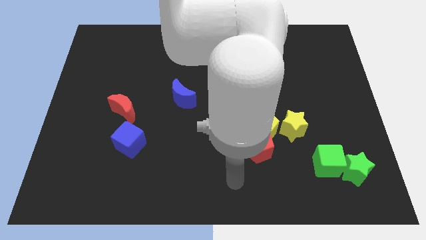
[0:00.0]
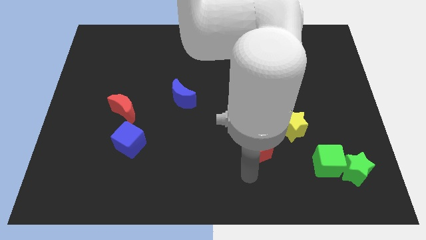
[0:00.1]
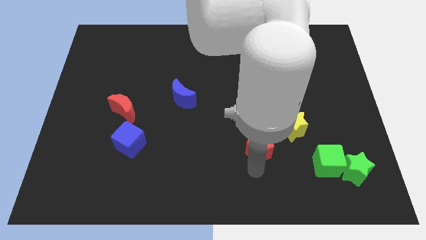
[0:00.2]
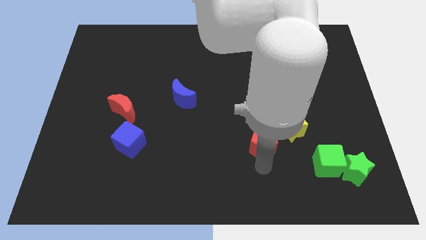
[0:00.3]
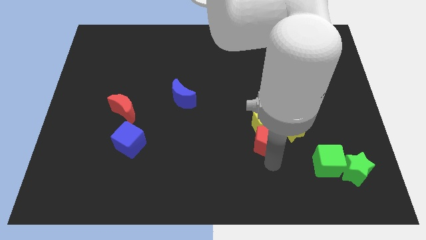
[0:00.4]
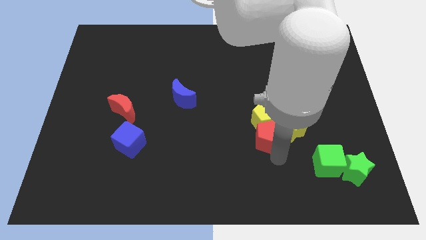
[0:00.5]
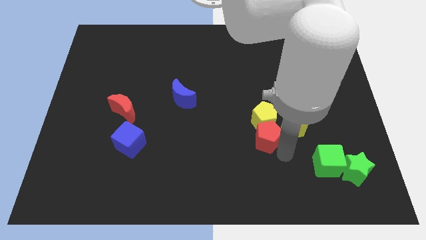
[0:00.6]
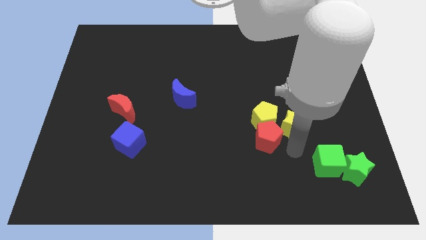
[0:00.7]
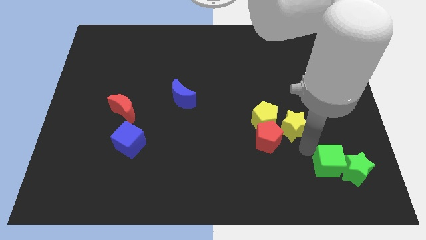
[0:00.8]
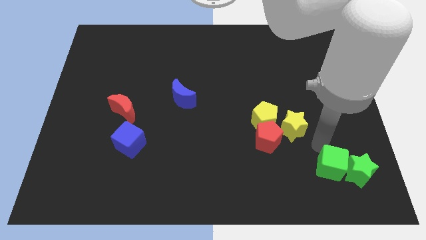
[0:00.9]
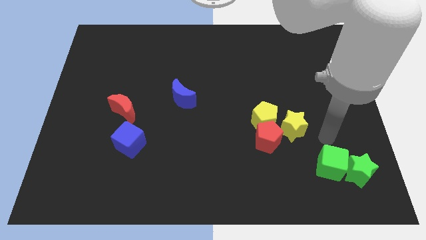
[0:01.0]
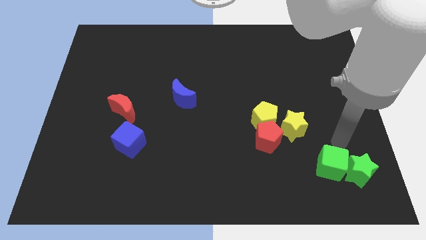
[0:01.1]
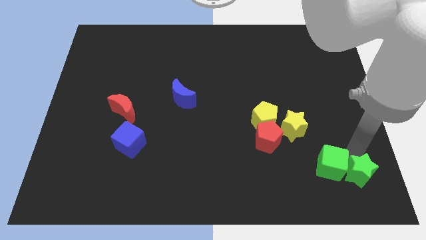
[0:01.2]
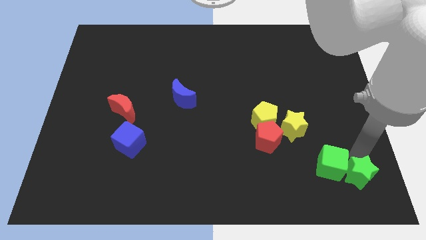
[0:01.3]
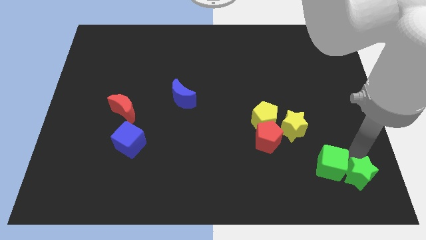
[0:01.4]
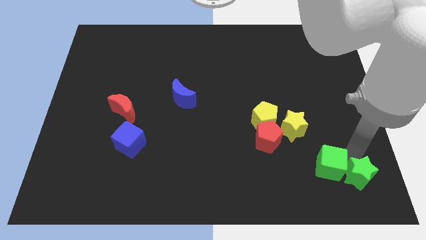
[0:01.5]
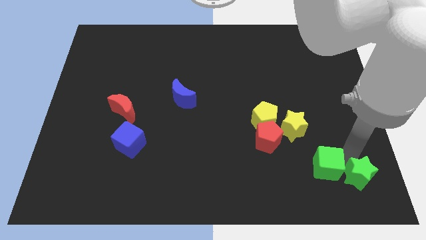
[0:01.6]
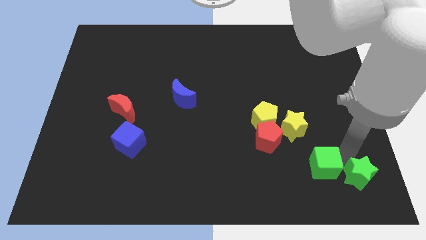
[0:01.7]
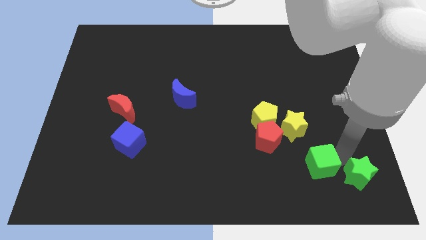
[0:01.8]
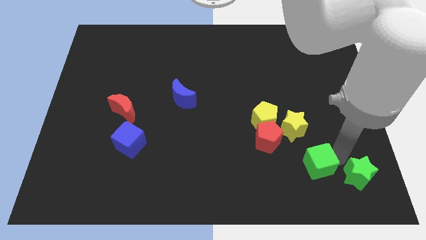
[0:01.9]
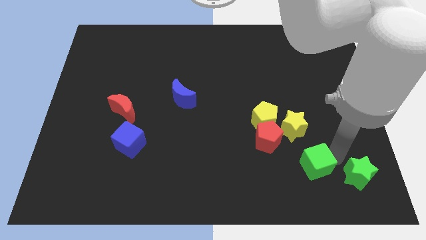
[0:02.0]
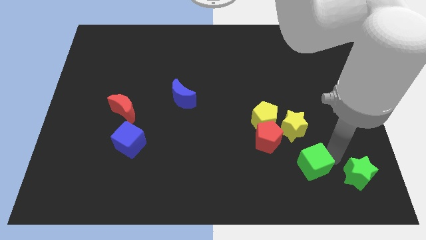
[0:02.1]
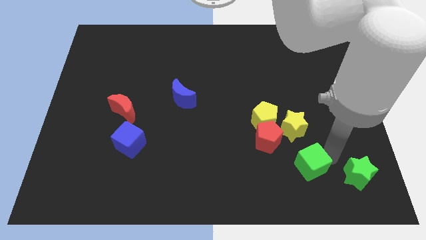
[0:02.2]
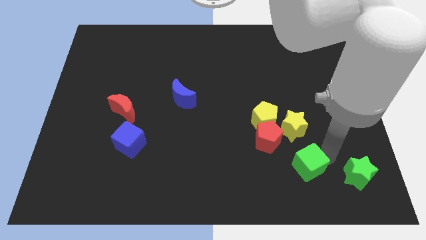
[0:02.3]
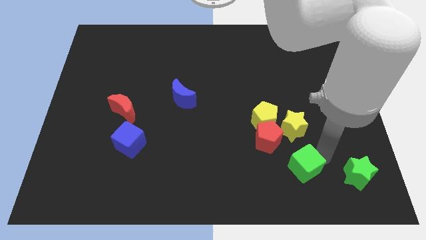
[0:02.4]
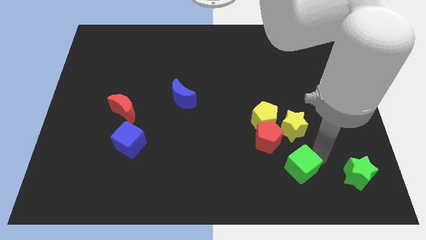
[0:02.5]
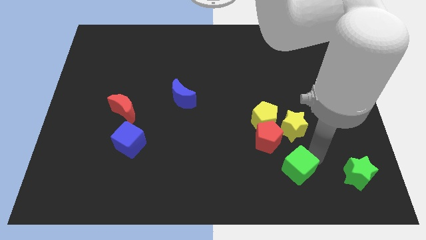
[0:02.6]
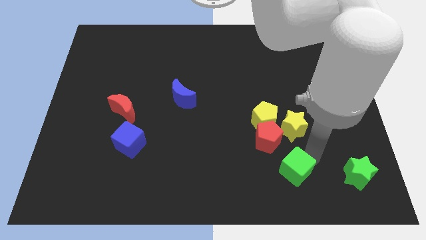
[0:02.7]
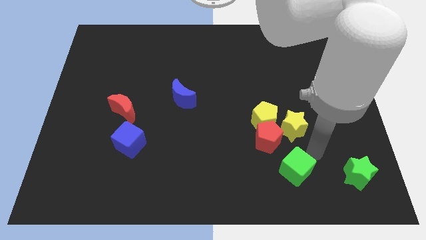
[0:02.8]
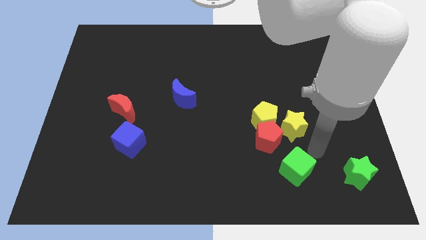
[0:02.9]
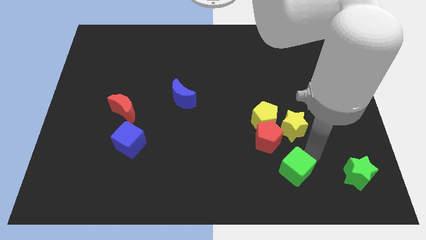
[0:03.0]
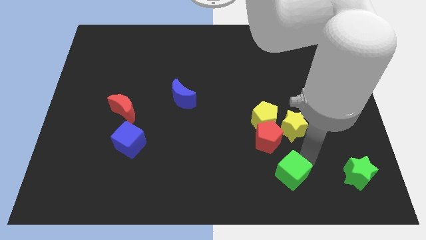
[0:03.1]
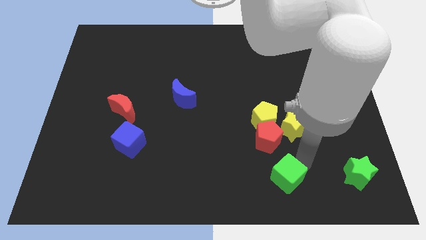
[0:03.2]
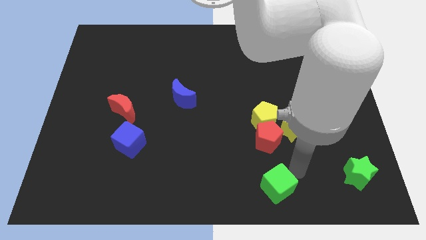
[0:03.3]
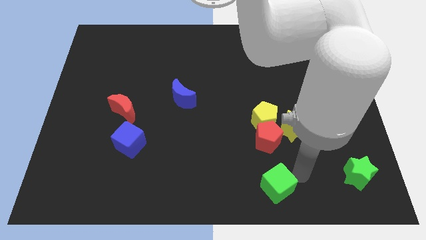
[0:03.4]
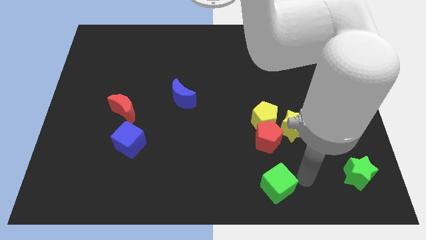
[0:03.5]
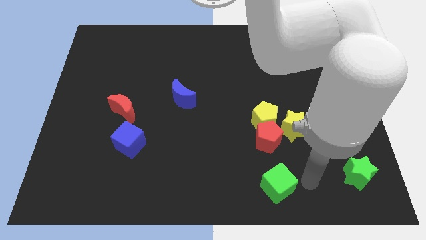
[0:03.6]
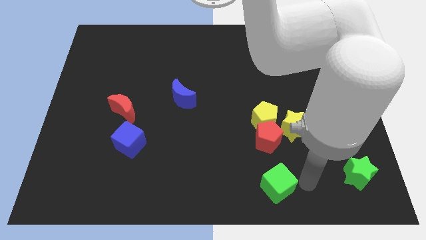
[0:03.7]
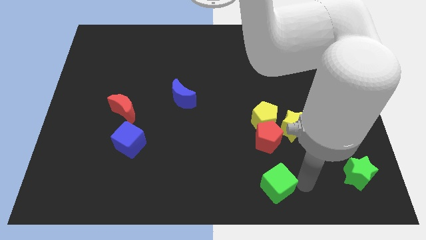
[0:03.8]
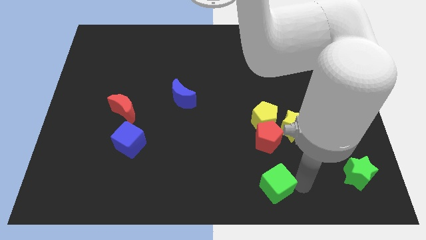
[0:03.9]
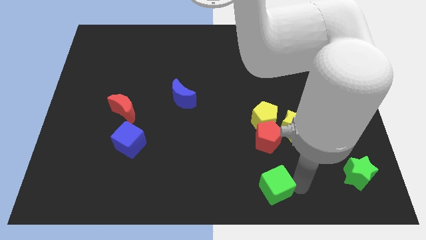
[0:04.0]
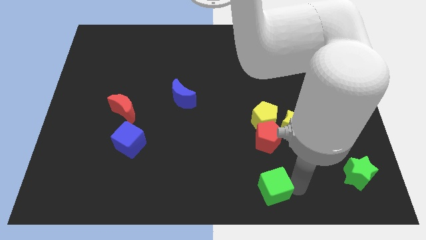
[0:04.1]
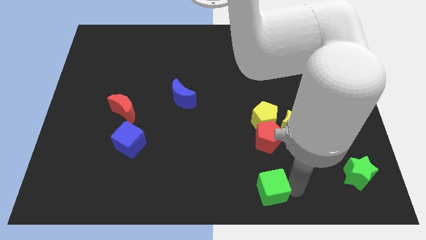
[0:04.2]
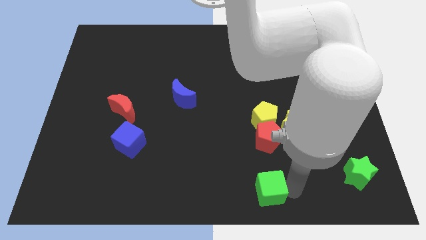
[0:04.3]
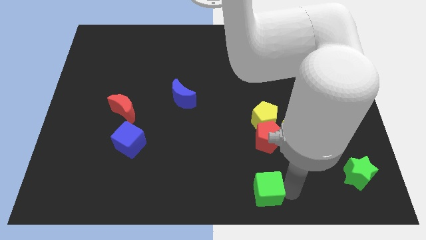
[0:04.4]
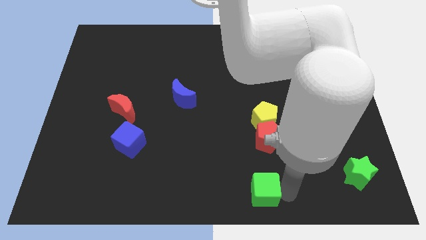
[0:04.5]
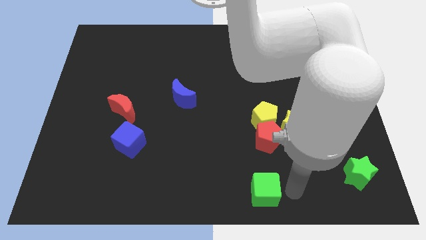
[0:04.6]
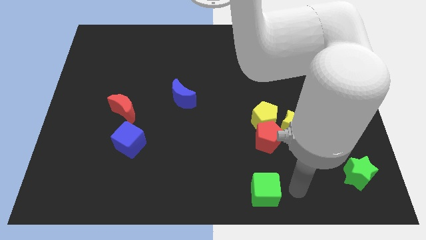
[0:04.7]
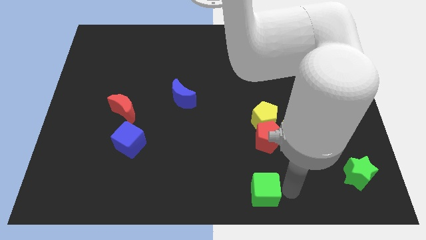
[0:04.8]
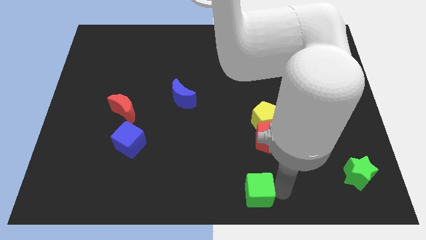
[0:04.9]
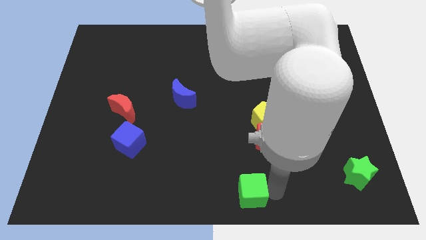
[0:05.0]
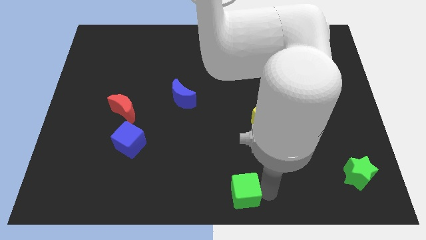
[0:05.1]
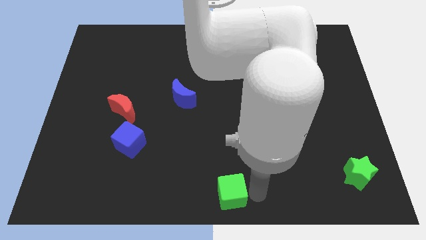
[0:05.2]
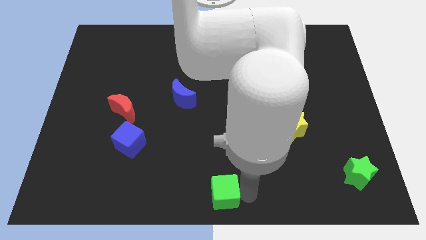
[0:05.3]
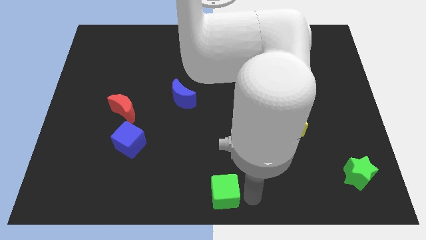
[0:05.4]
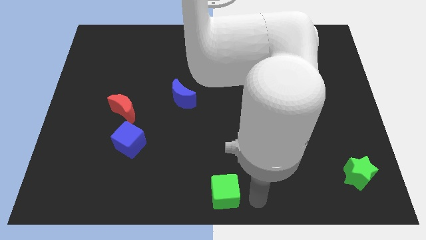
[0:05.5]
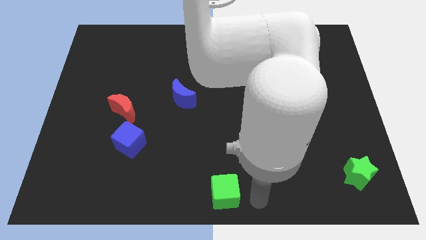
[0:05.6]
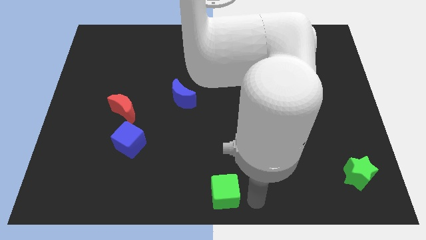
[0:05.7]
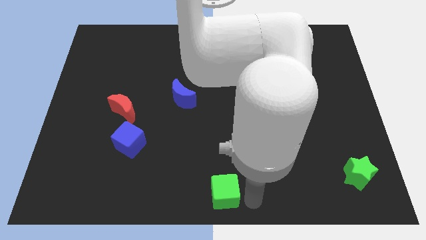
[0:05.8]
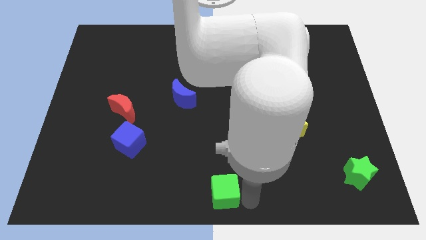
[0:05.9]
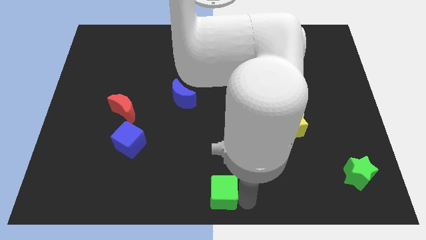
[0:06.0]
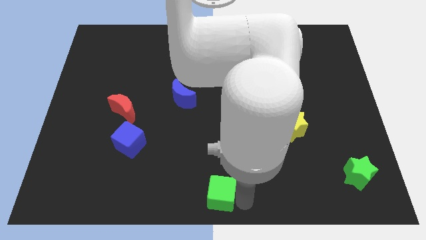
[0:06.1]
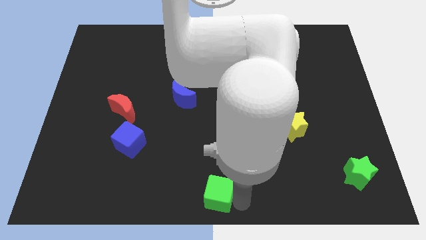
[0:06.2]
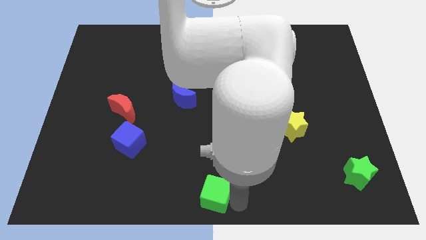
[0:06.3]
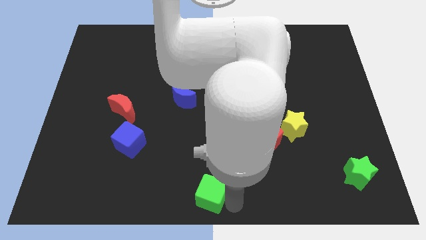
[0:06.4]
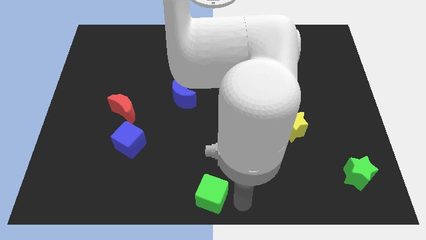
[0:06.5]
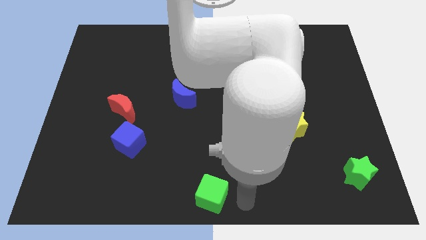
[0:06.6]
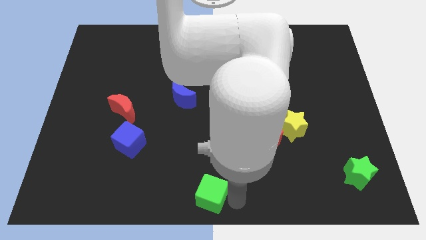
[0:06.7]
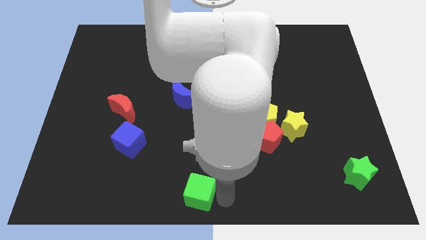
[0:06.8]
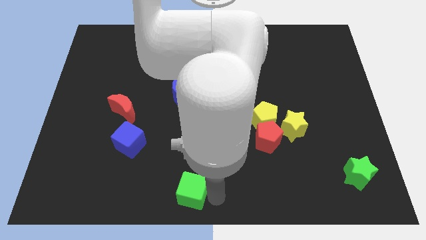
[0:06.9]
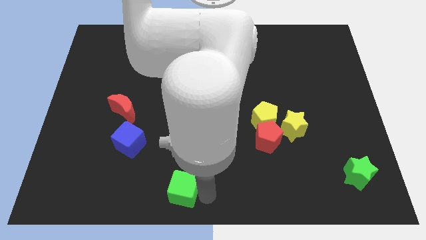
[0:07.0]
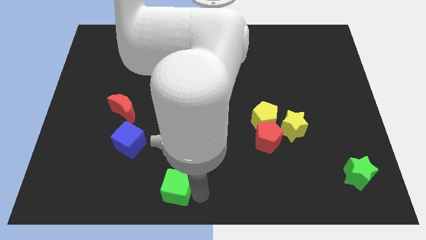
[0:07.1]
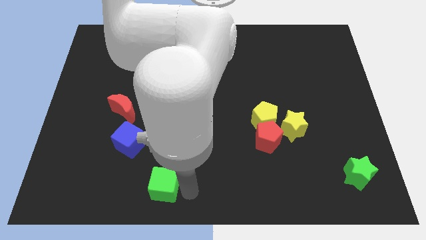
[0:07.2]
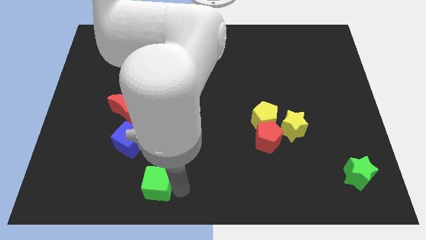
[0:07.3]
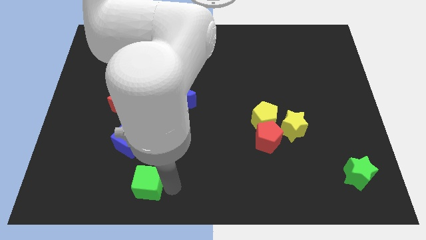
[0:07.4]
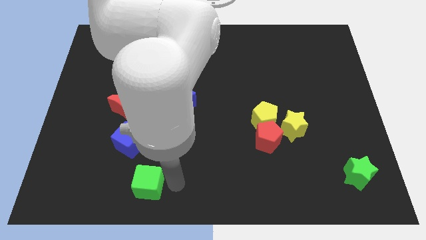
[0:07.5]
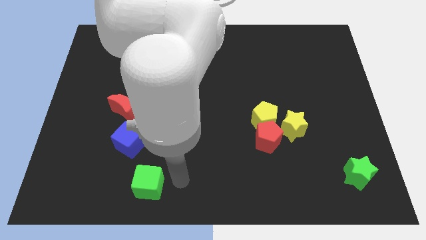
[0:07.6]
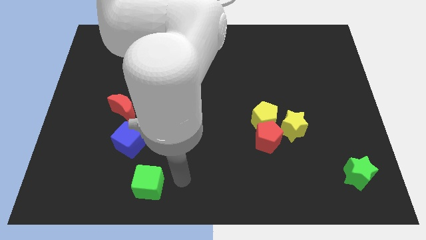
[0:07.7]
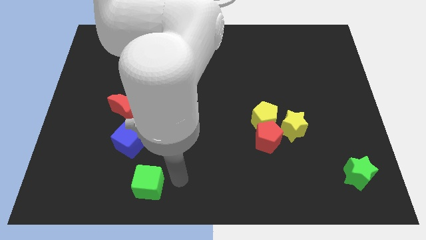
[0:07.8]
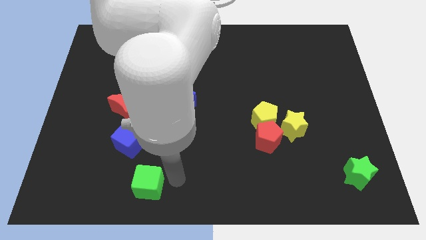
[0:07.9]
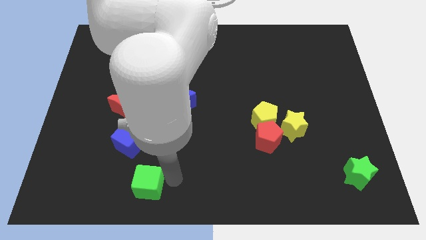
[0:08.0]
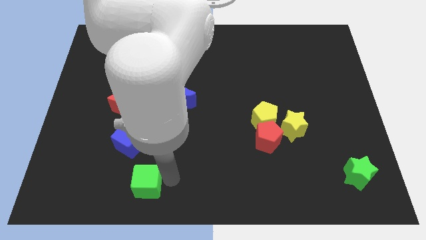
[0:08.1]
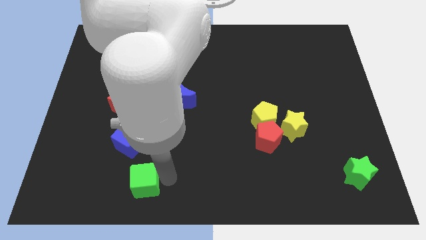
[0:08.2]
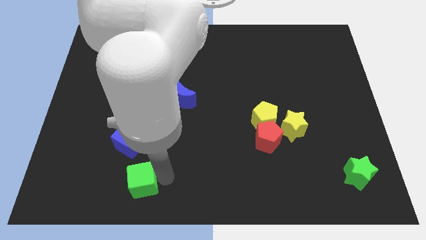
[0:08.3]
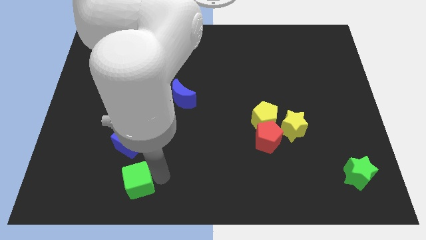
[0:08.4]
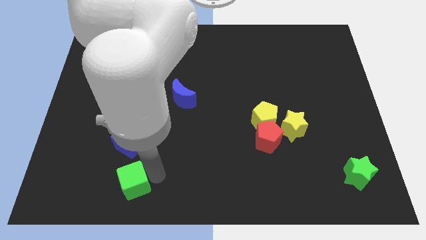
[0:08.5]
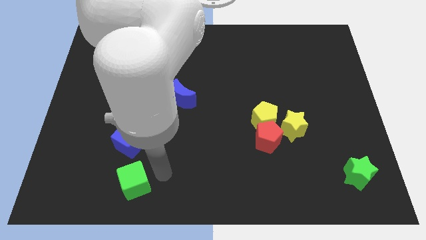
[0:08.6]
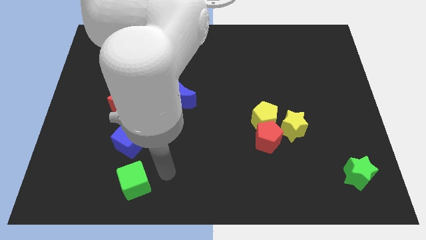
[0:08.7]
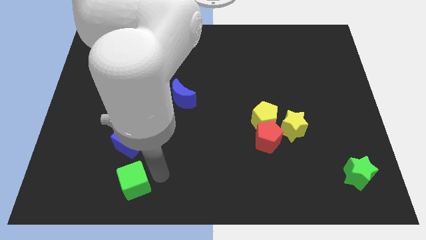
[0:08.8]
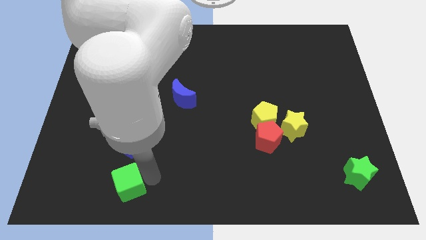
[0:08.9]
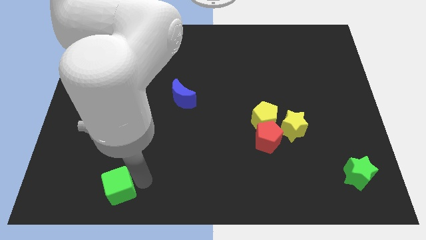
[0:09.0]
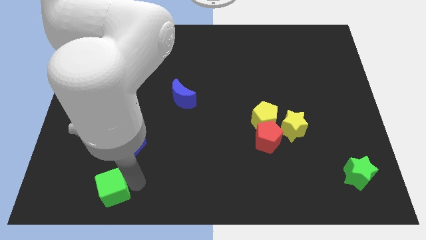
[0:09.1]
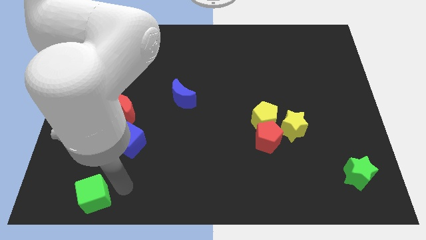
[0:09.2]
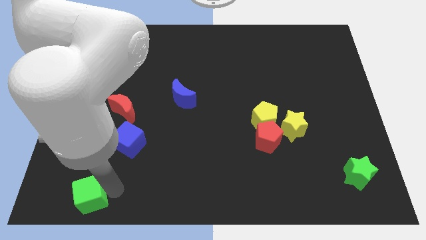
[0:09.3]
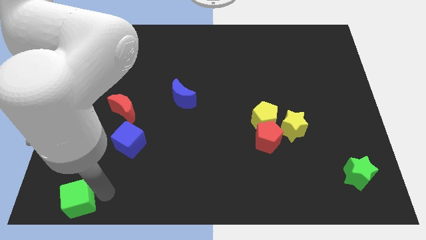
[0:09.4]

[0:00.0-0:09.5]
slide the green cube to the bottom left of the board
